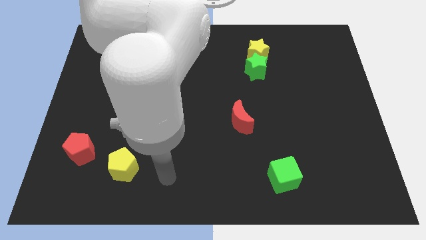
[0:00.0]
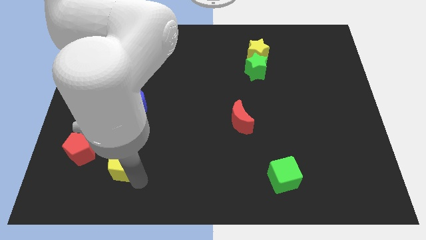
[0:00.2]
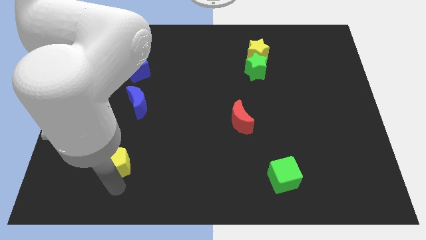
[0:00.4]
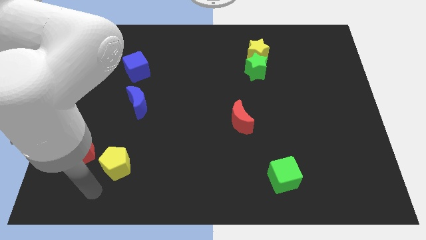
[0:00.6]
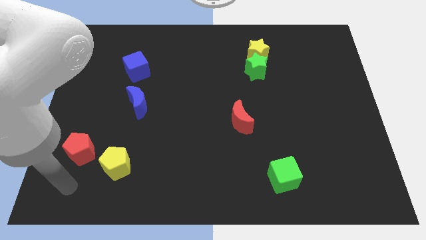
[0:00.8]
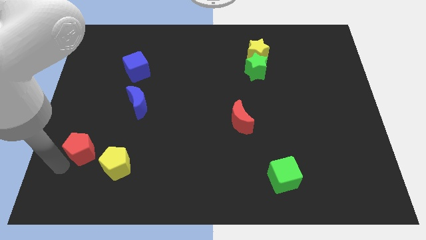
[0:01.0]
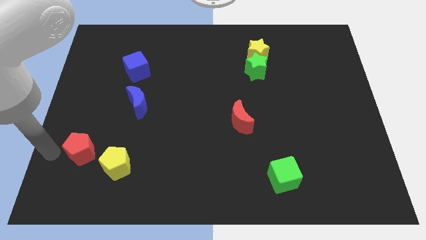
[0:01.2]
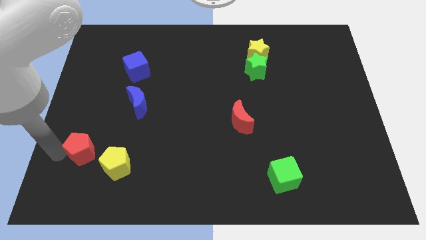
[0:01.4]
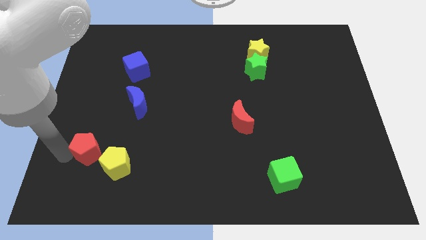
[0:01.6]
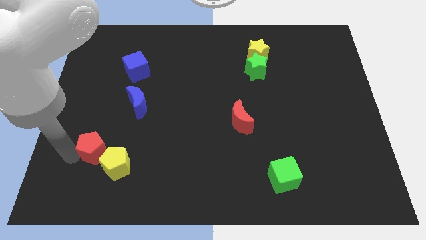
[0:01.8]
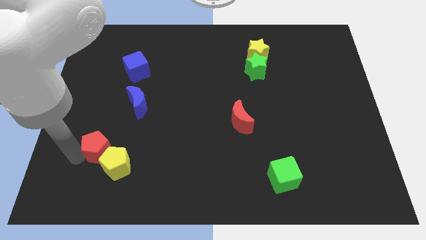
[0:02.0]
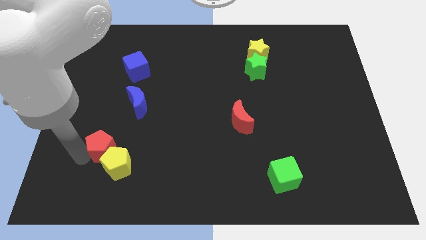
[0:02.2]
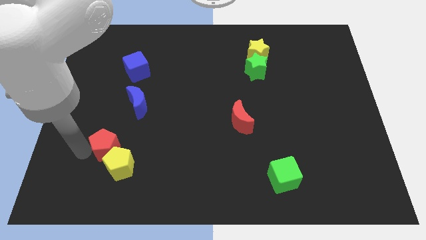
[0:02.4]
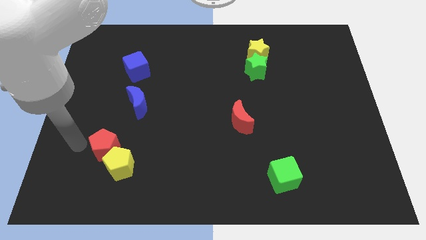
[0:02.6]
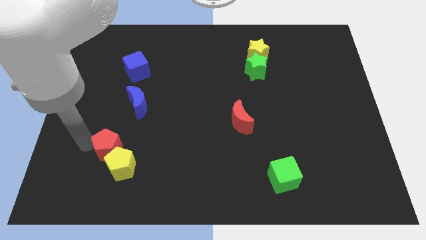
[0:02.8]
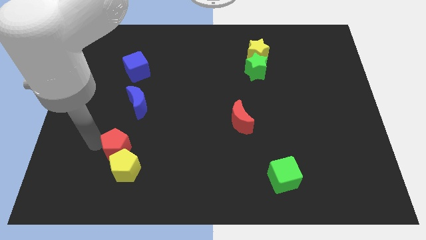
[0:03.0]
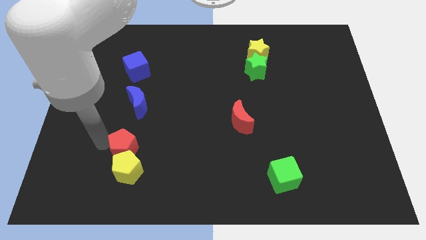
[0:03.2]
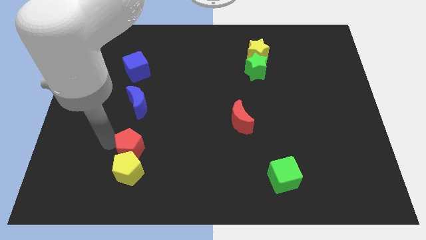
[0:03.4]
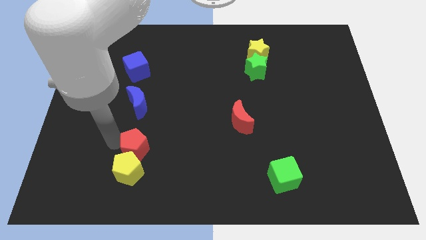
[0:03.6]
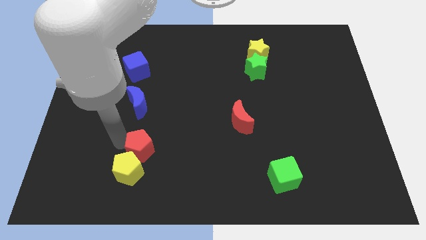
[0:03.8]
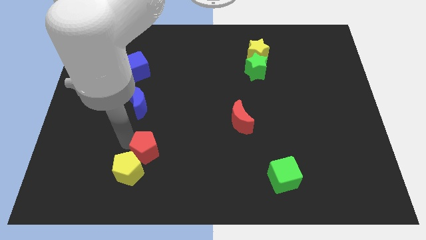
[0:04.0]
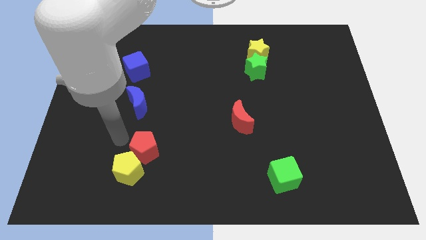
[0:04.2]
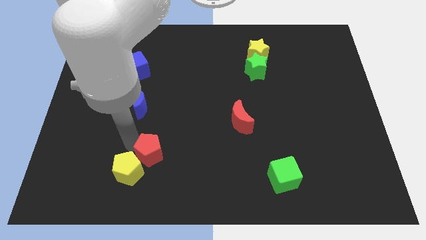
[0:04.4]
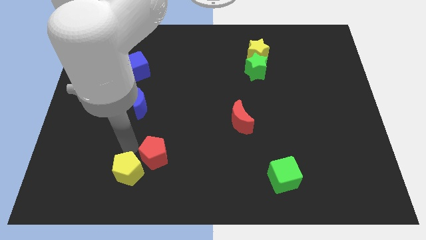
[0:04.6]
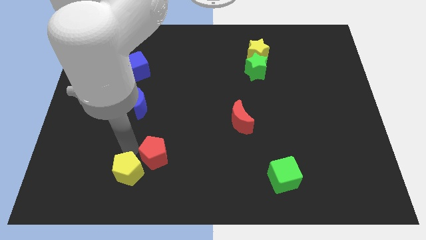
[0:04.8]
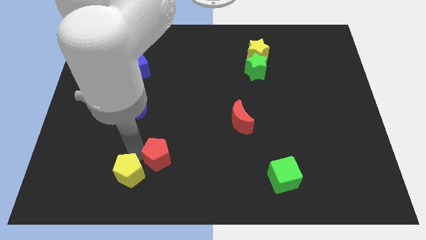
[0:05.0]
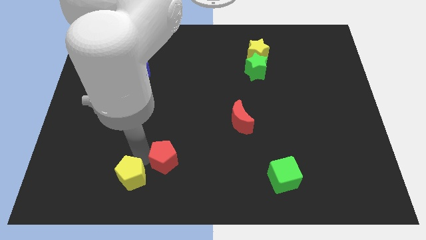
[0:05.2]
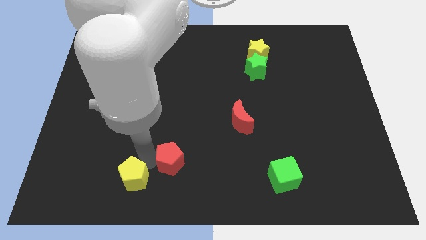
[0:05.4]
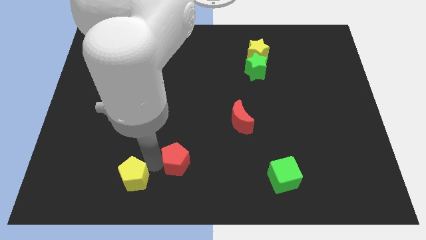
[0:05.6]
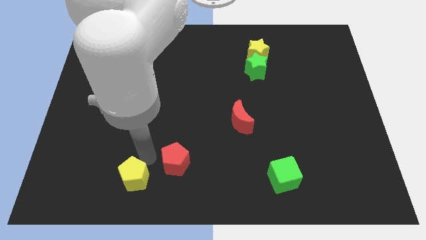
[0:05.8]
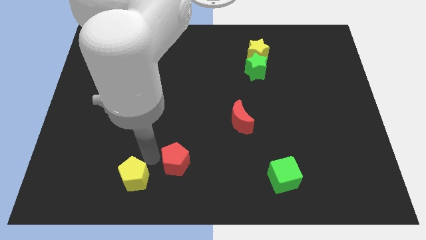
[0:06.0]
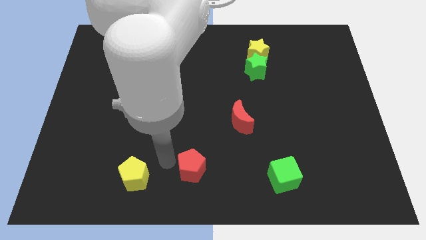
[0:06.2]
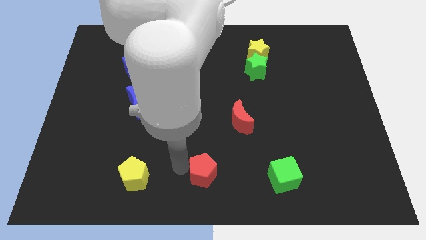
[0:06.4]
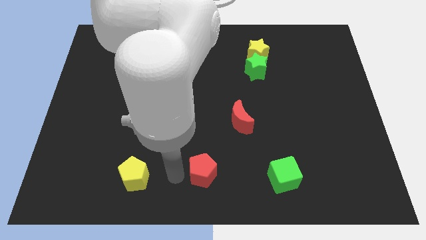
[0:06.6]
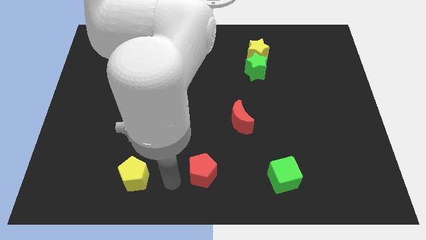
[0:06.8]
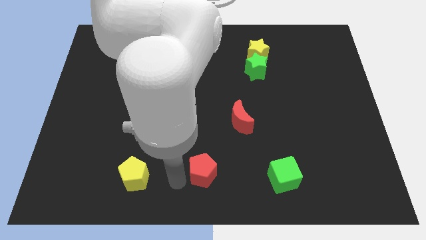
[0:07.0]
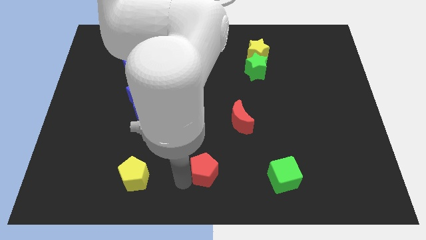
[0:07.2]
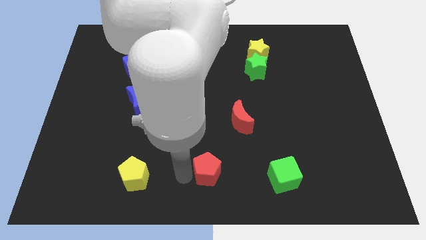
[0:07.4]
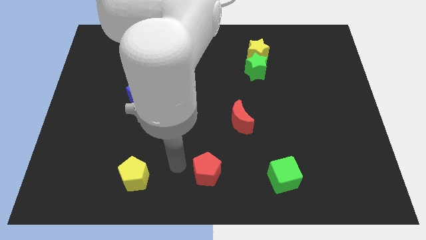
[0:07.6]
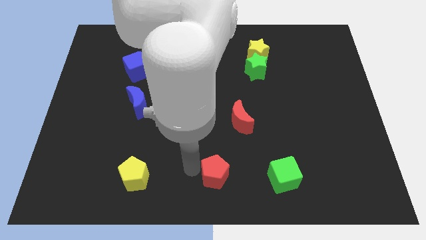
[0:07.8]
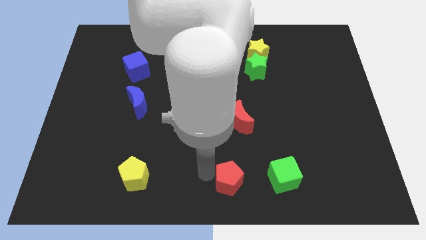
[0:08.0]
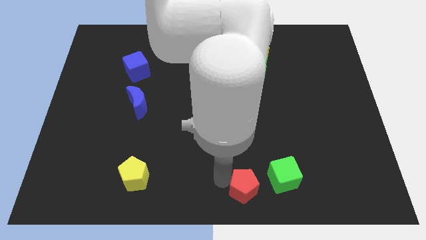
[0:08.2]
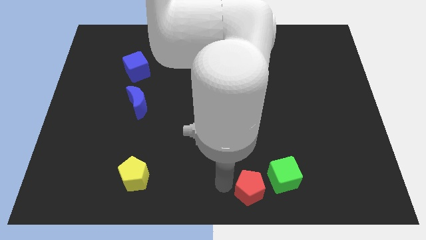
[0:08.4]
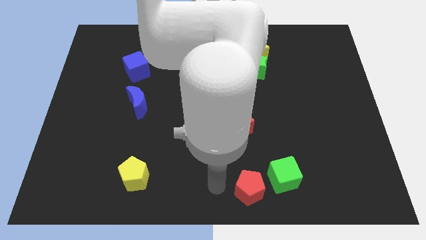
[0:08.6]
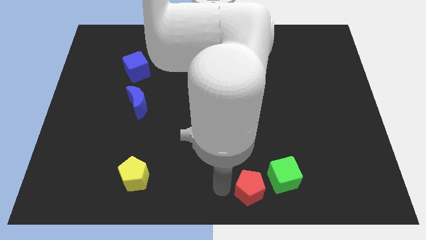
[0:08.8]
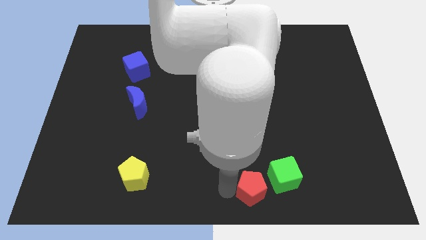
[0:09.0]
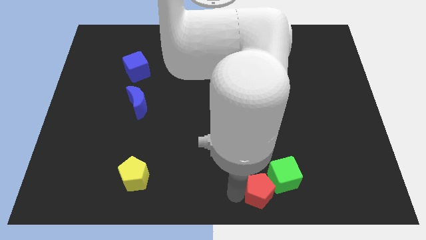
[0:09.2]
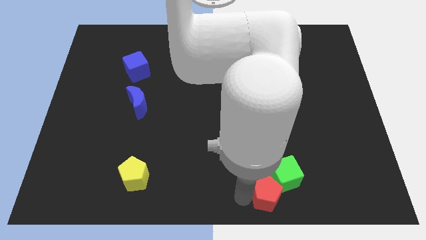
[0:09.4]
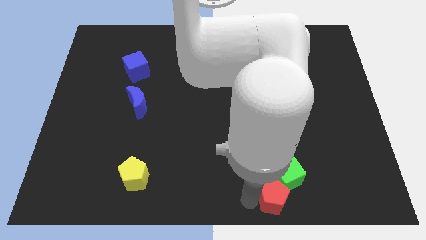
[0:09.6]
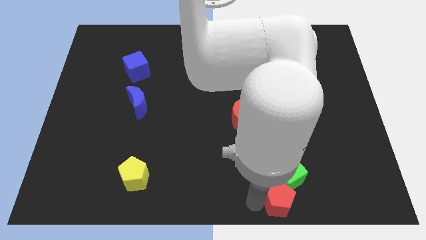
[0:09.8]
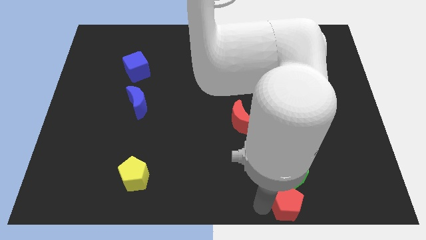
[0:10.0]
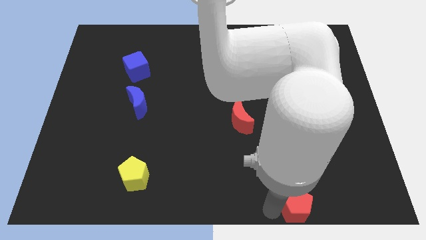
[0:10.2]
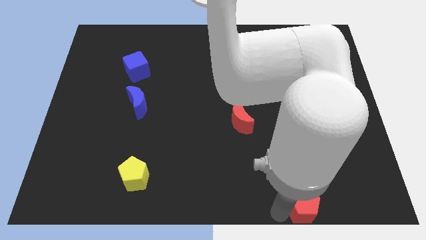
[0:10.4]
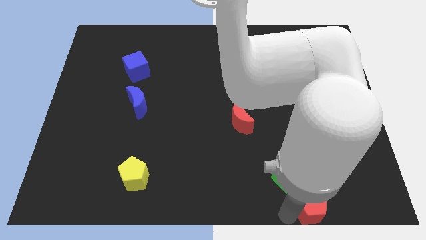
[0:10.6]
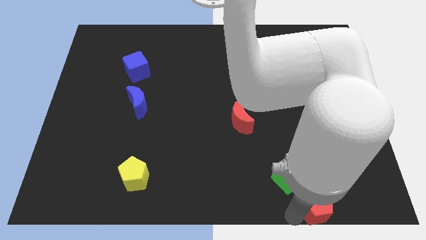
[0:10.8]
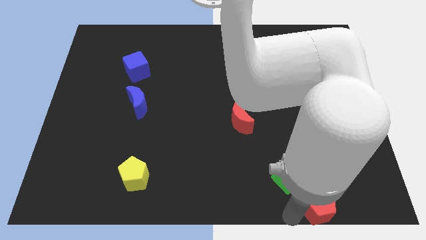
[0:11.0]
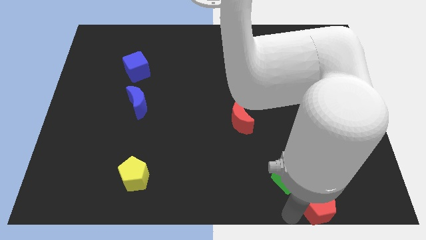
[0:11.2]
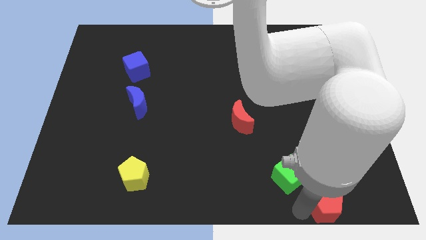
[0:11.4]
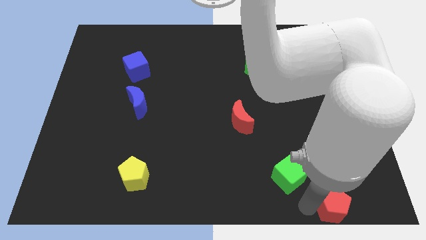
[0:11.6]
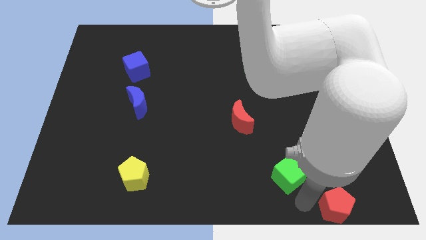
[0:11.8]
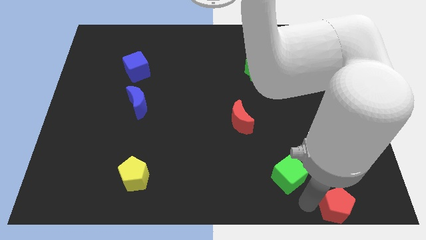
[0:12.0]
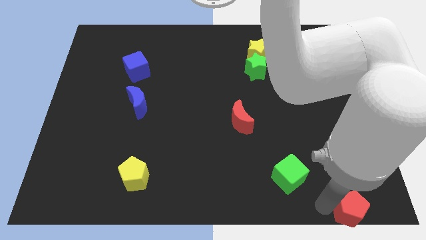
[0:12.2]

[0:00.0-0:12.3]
put the red pentagon to the bottom right
